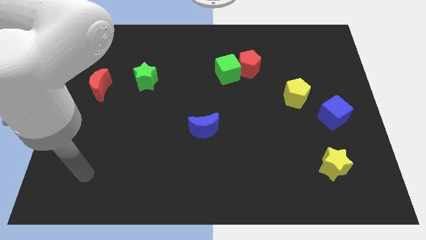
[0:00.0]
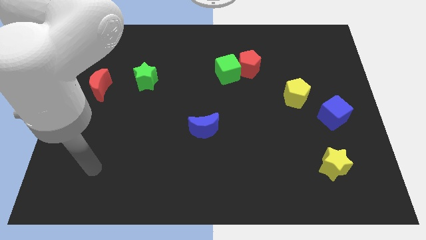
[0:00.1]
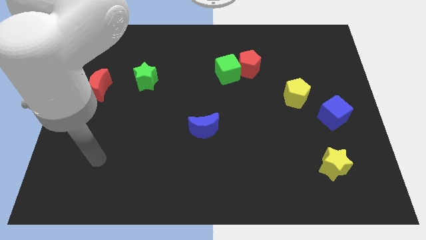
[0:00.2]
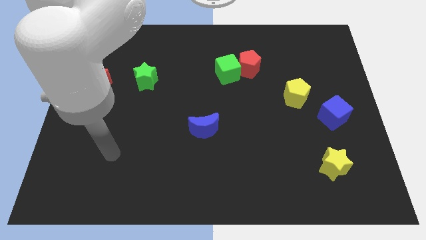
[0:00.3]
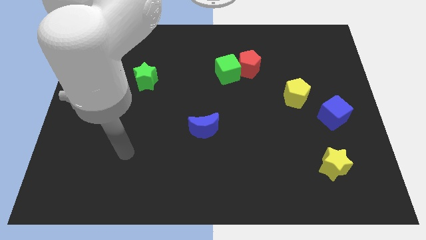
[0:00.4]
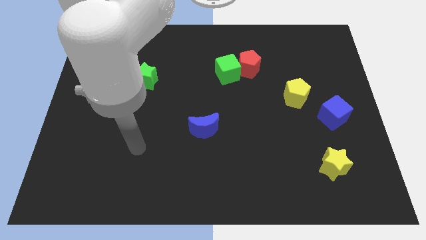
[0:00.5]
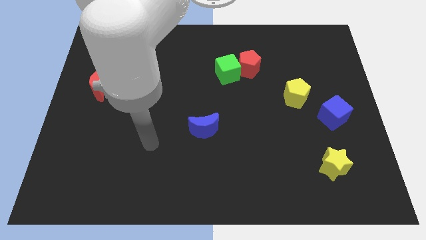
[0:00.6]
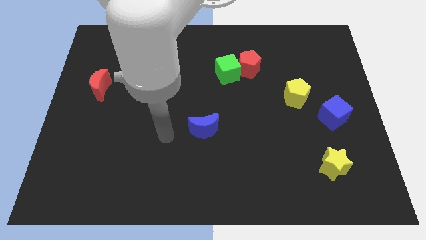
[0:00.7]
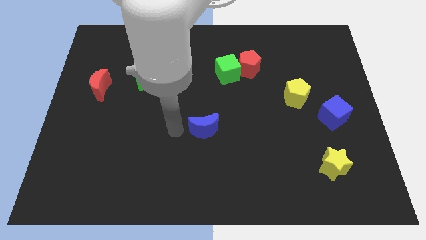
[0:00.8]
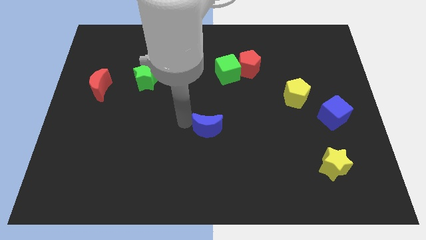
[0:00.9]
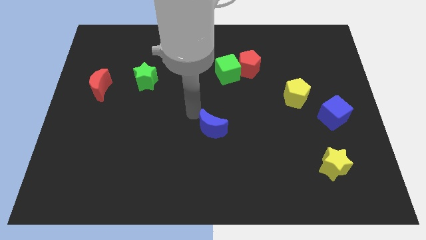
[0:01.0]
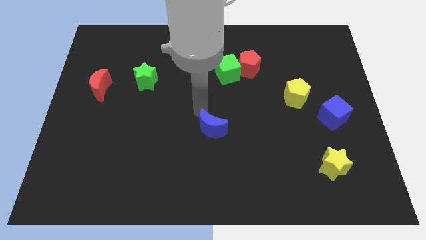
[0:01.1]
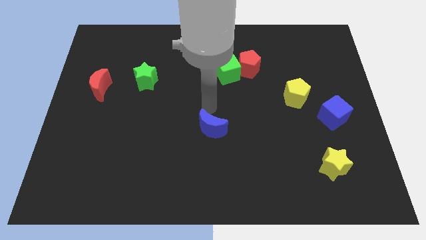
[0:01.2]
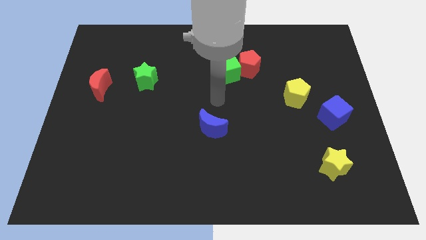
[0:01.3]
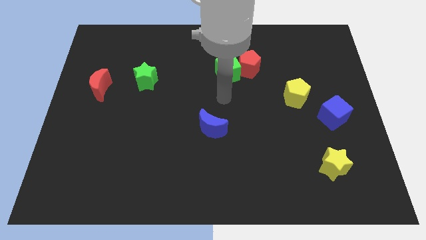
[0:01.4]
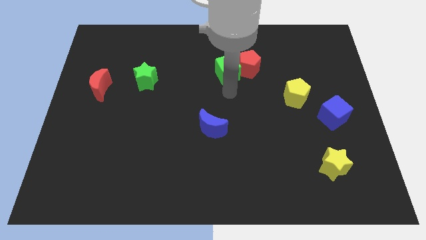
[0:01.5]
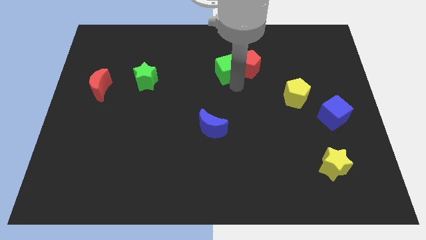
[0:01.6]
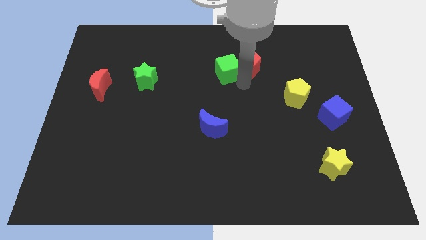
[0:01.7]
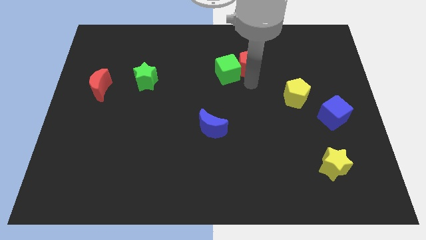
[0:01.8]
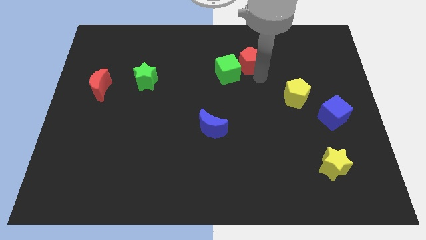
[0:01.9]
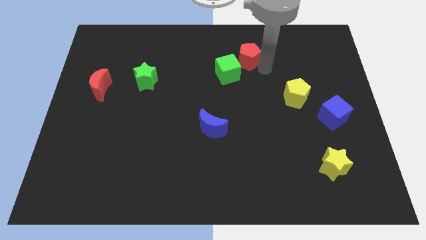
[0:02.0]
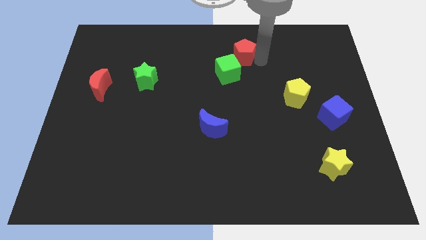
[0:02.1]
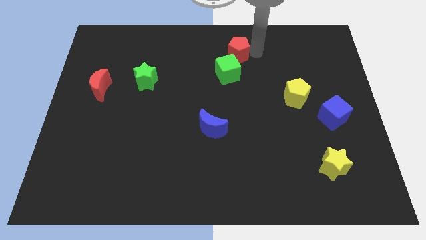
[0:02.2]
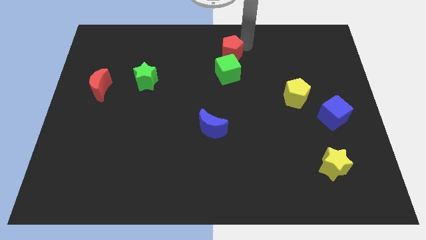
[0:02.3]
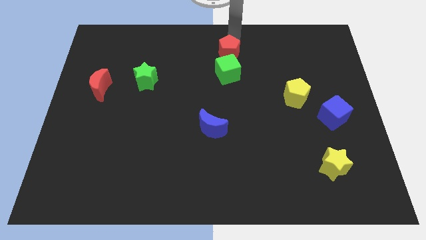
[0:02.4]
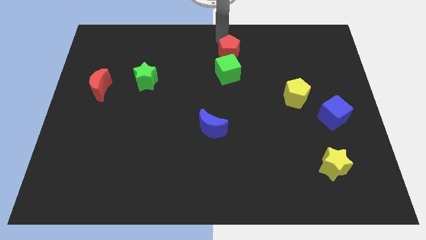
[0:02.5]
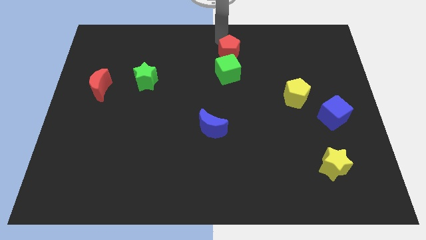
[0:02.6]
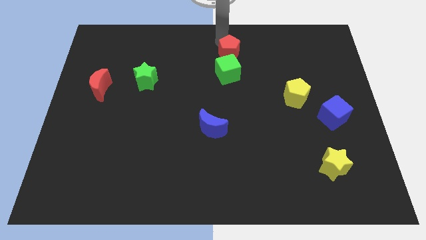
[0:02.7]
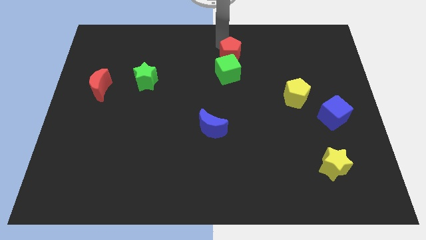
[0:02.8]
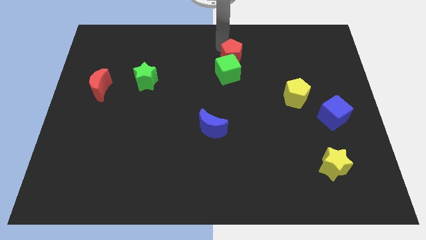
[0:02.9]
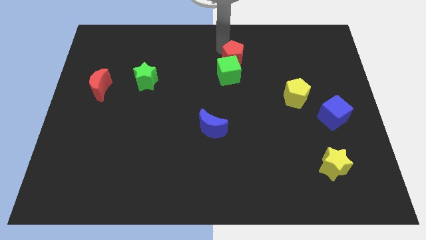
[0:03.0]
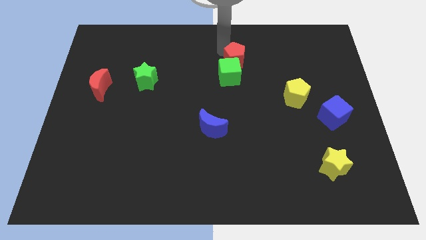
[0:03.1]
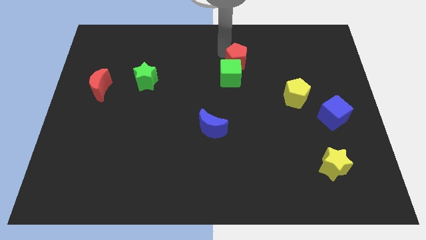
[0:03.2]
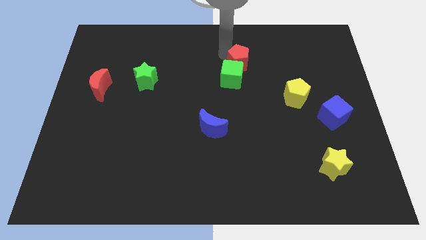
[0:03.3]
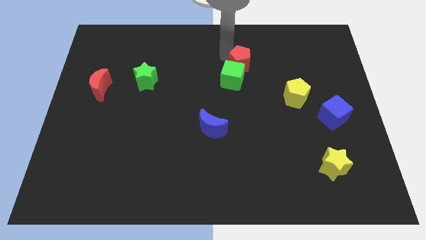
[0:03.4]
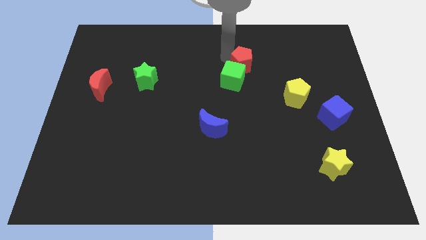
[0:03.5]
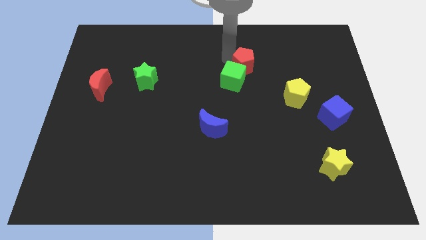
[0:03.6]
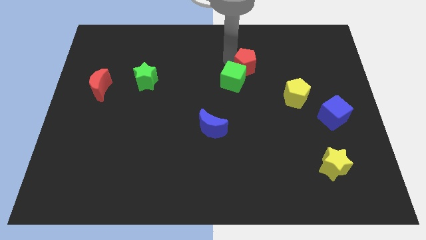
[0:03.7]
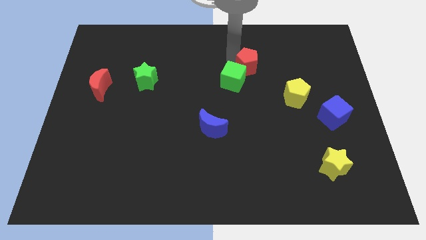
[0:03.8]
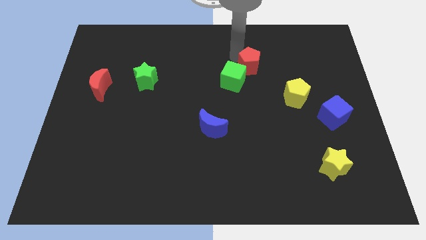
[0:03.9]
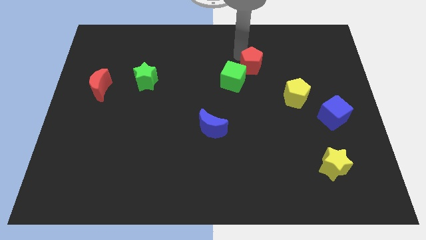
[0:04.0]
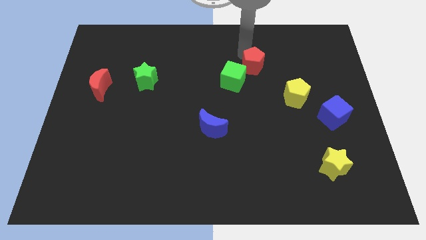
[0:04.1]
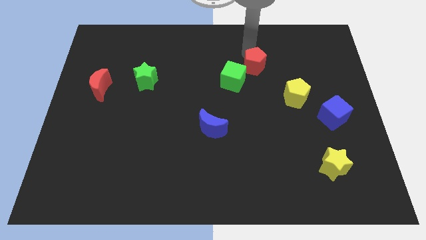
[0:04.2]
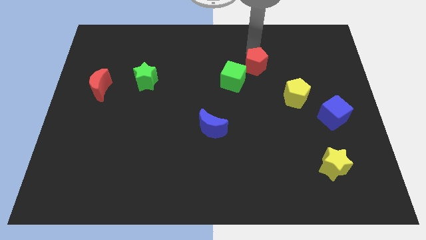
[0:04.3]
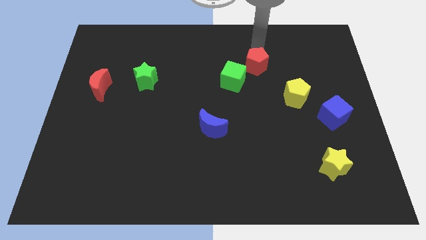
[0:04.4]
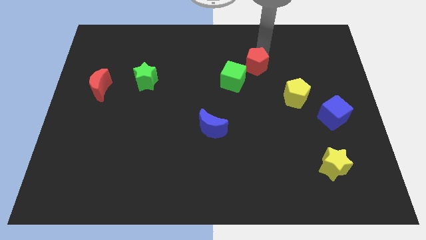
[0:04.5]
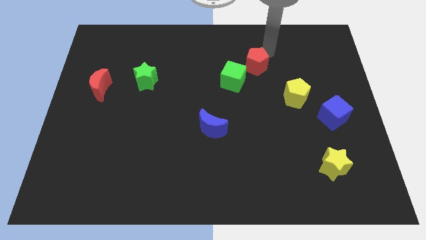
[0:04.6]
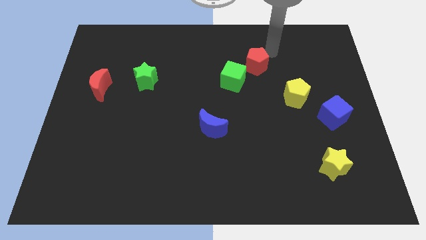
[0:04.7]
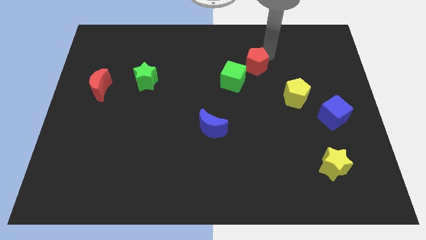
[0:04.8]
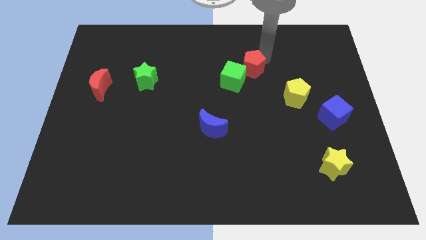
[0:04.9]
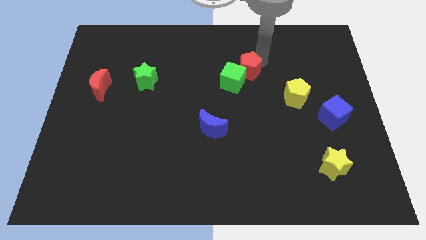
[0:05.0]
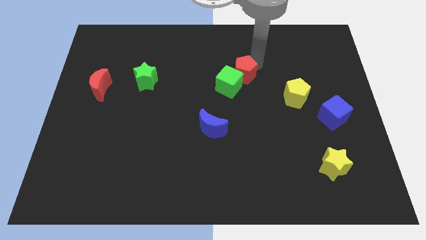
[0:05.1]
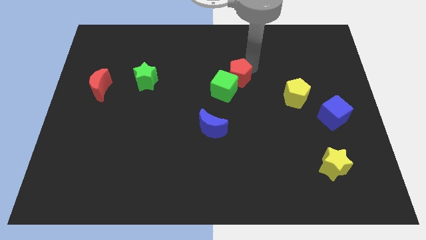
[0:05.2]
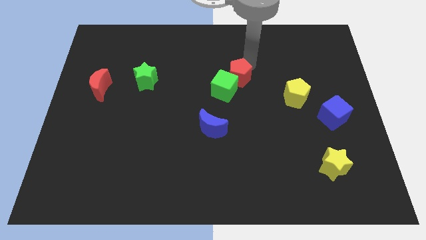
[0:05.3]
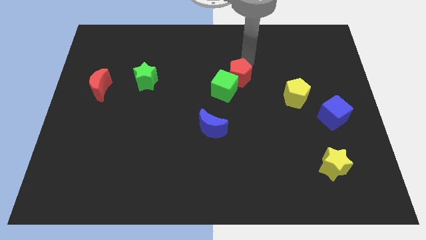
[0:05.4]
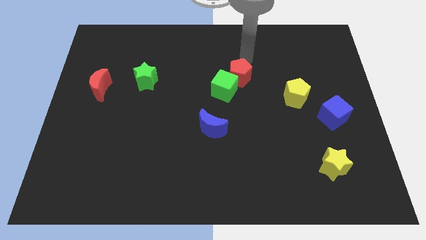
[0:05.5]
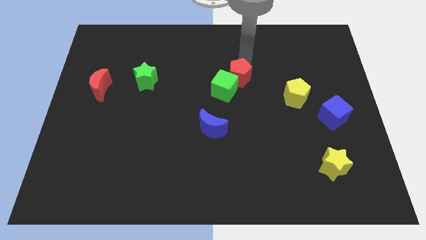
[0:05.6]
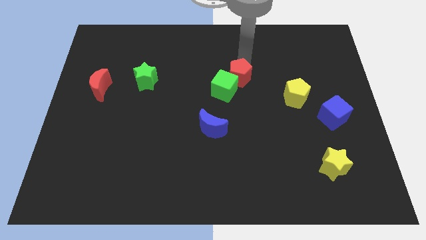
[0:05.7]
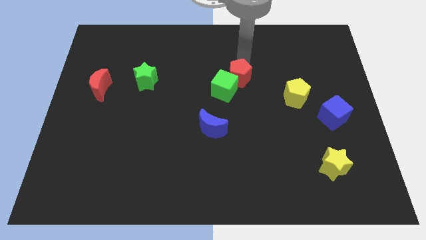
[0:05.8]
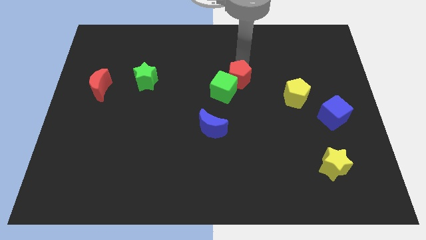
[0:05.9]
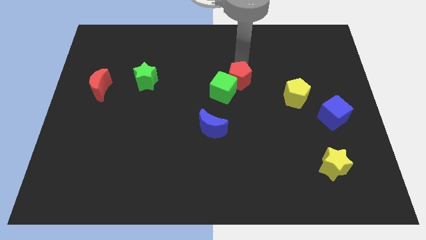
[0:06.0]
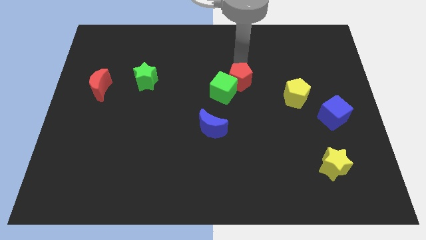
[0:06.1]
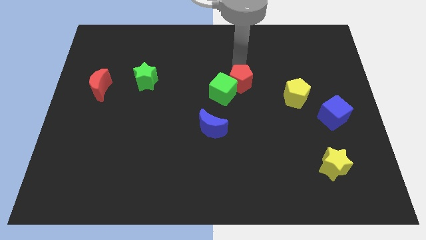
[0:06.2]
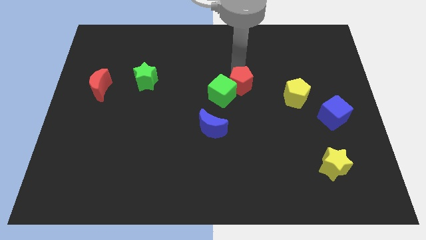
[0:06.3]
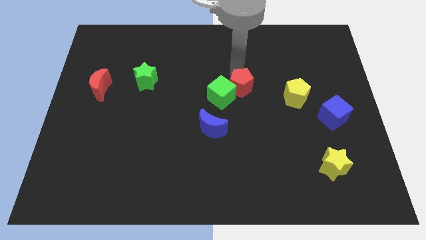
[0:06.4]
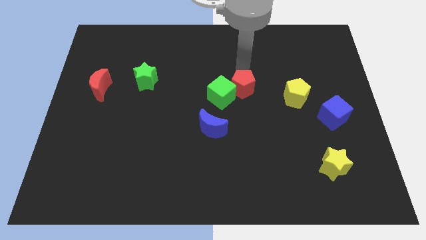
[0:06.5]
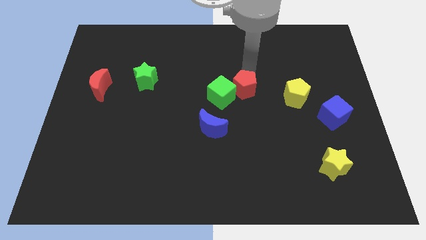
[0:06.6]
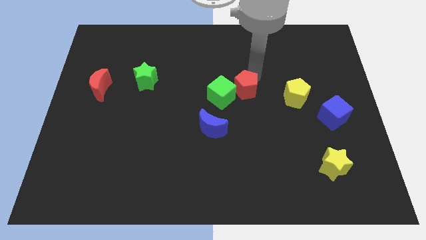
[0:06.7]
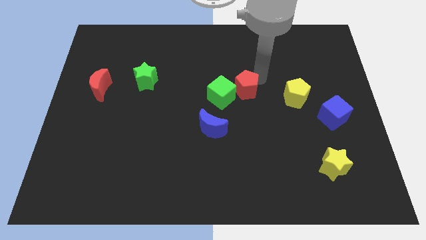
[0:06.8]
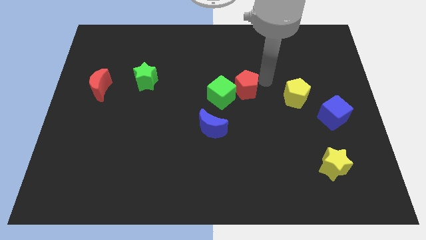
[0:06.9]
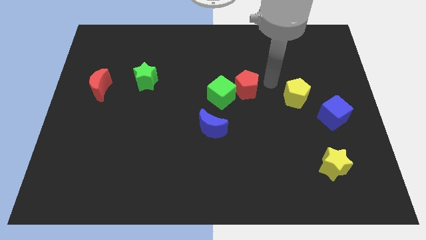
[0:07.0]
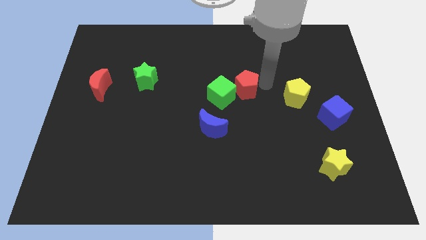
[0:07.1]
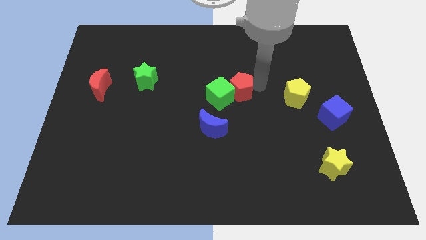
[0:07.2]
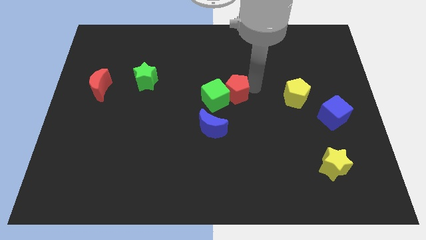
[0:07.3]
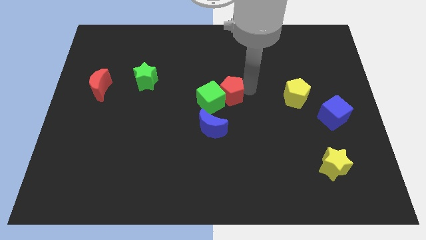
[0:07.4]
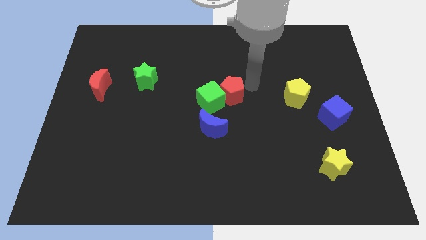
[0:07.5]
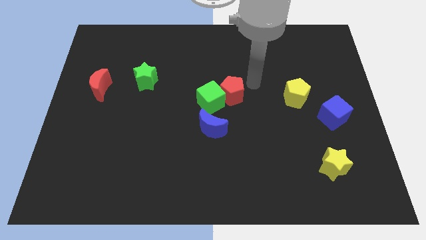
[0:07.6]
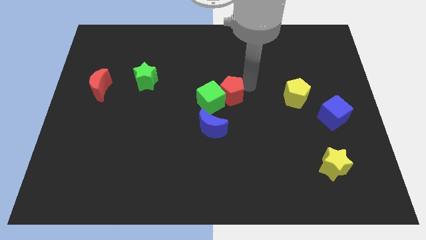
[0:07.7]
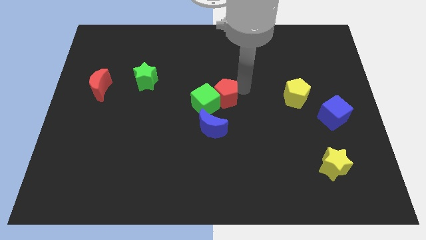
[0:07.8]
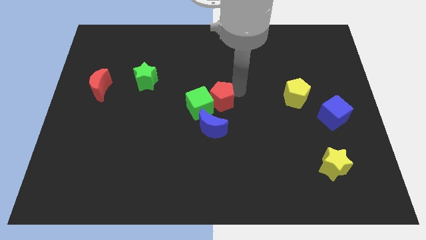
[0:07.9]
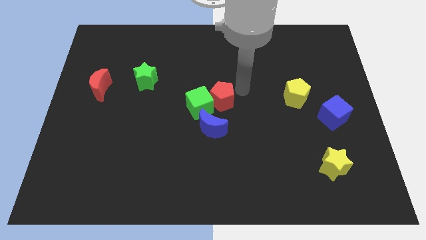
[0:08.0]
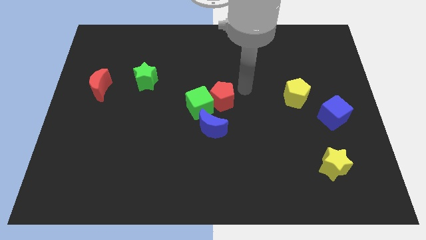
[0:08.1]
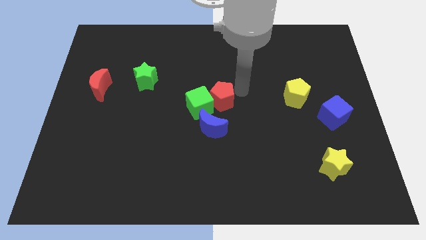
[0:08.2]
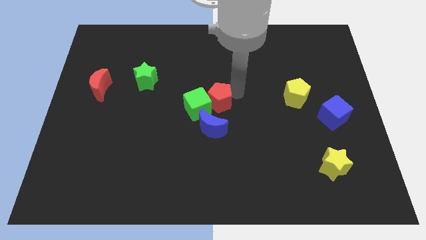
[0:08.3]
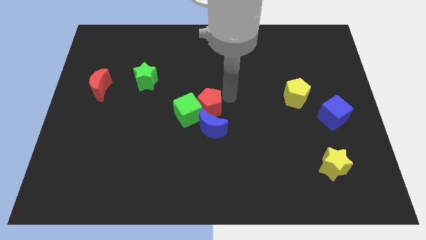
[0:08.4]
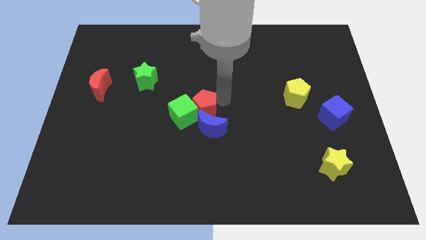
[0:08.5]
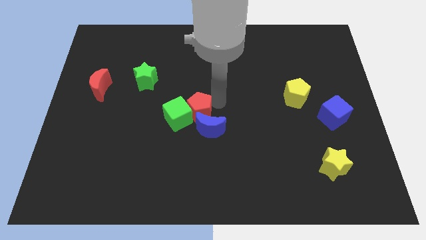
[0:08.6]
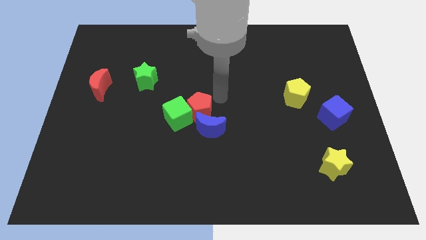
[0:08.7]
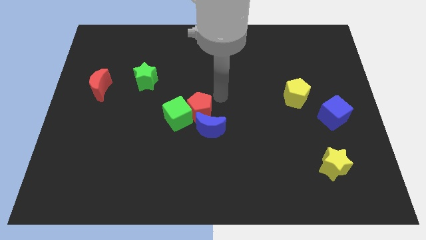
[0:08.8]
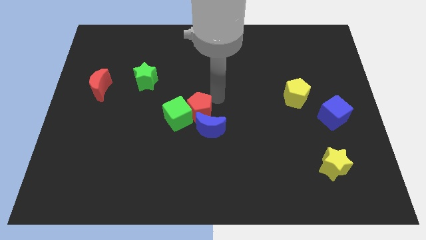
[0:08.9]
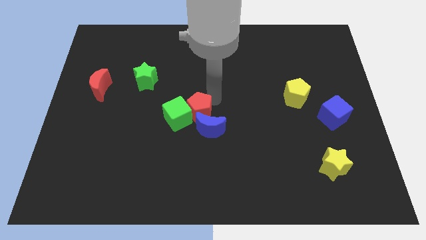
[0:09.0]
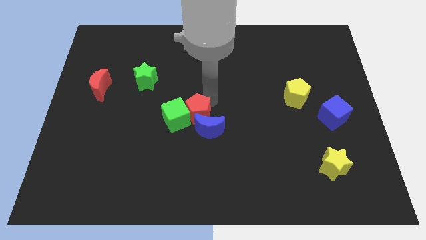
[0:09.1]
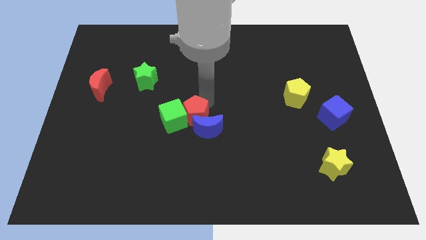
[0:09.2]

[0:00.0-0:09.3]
push the red pentagon down and then to the left
